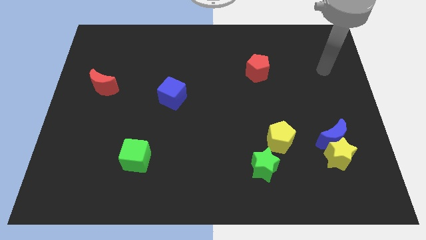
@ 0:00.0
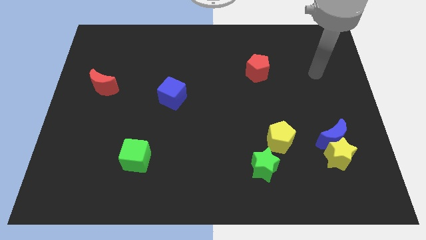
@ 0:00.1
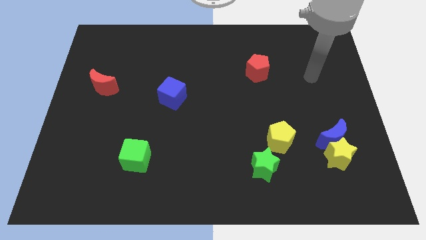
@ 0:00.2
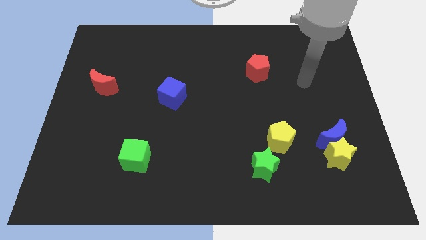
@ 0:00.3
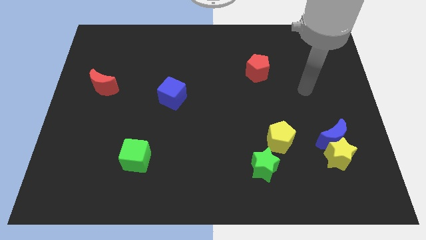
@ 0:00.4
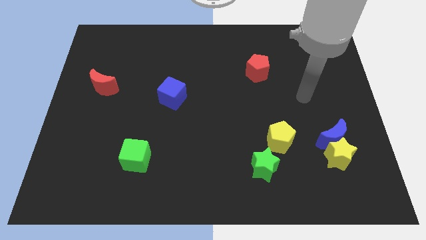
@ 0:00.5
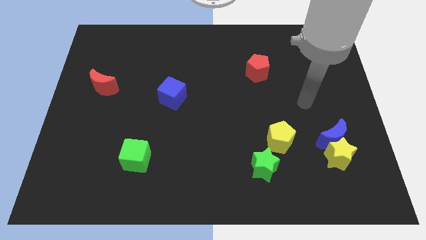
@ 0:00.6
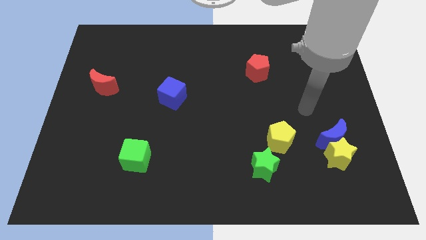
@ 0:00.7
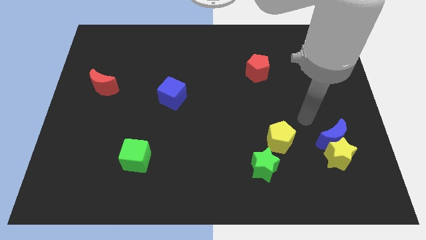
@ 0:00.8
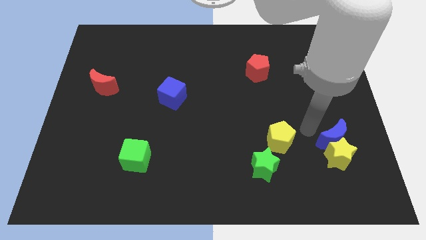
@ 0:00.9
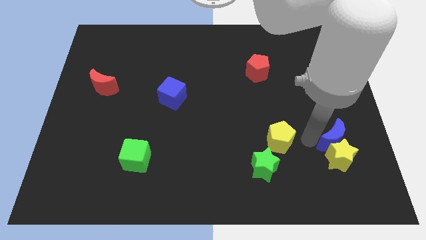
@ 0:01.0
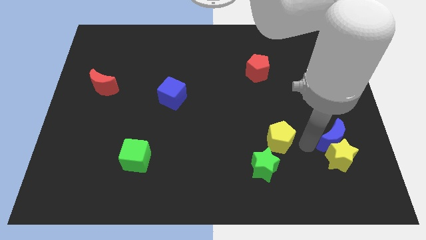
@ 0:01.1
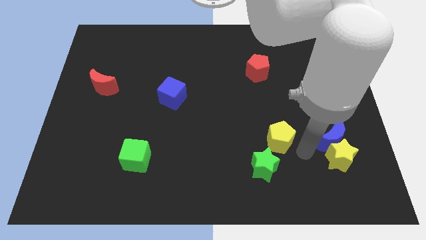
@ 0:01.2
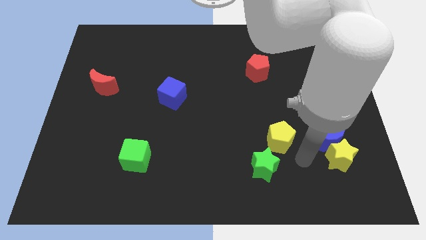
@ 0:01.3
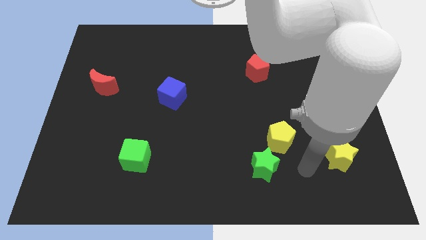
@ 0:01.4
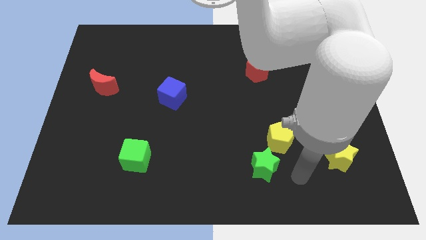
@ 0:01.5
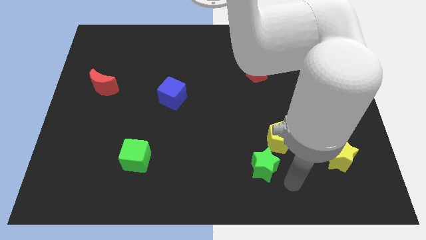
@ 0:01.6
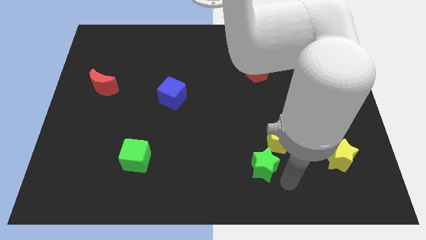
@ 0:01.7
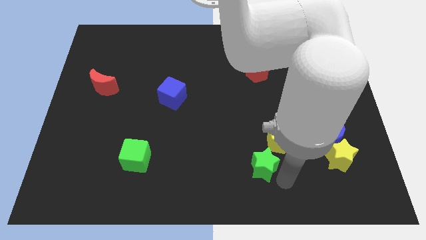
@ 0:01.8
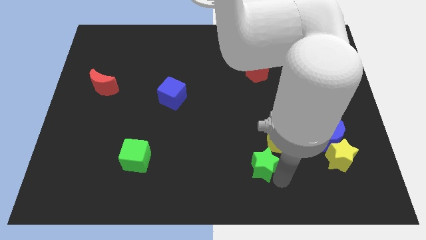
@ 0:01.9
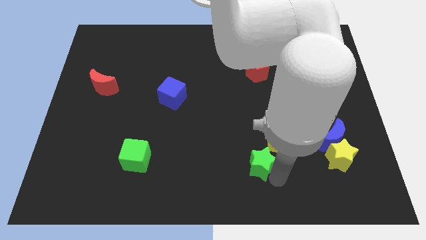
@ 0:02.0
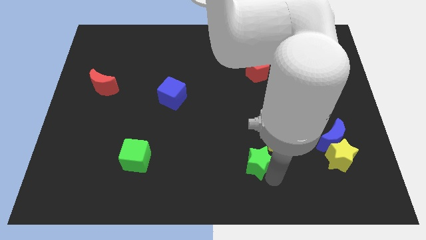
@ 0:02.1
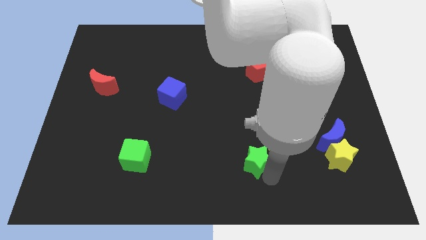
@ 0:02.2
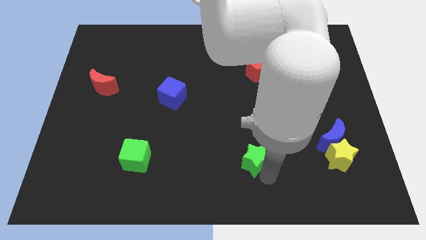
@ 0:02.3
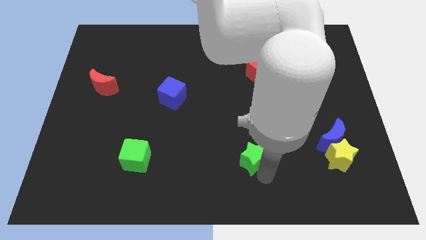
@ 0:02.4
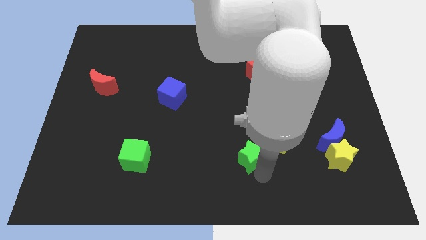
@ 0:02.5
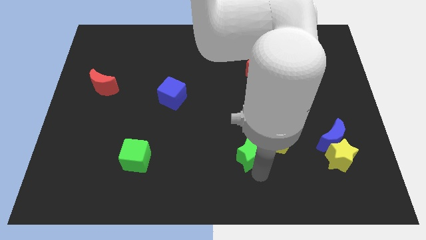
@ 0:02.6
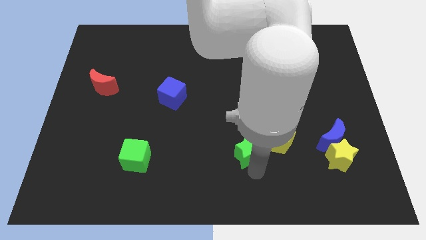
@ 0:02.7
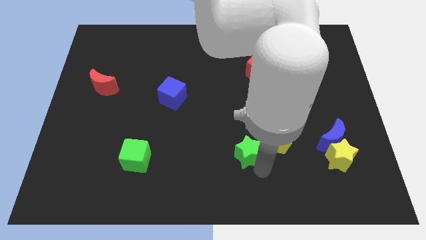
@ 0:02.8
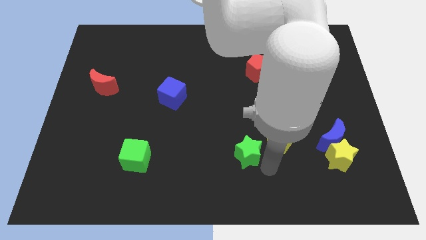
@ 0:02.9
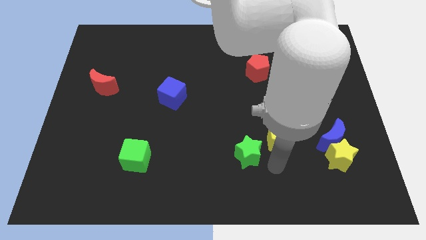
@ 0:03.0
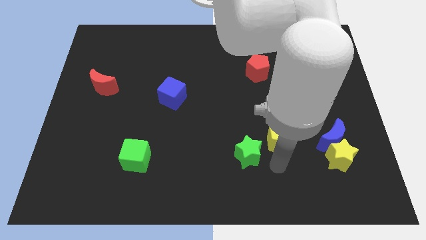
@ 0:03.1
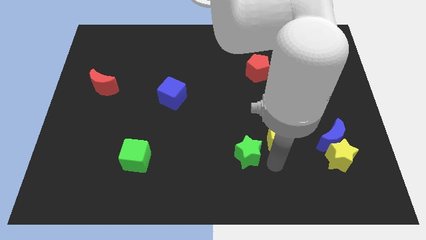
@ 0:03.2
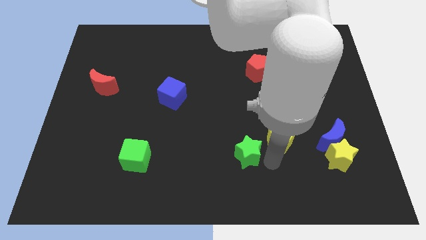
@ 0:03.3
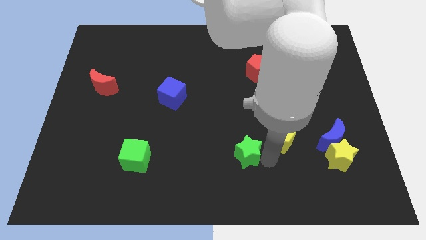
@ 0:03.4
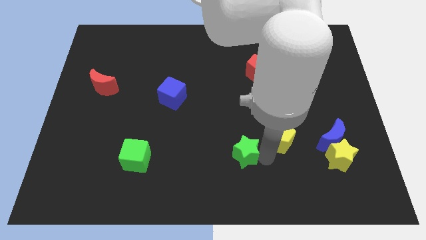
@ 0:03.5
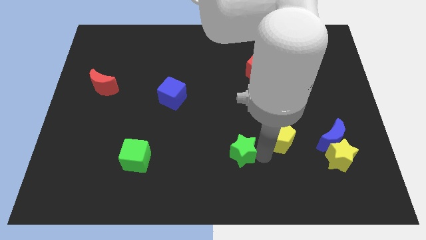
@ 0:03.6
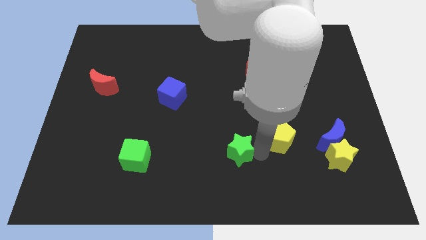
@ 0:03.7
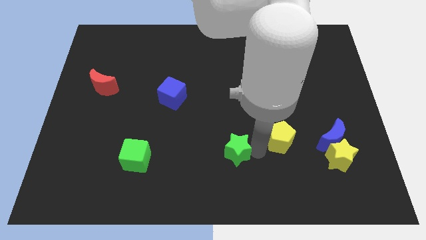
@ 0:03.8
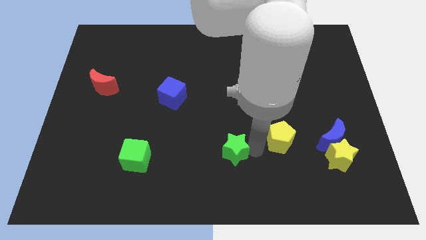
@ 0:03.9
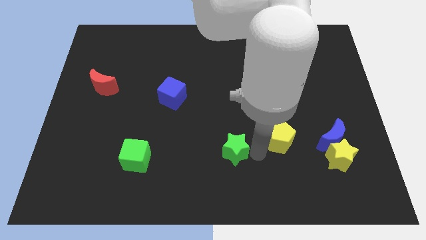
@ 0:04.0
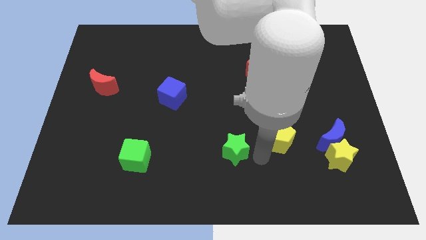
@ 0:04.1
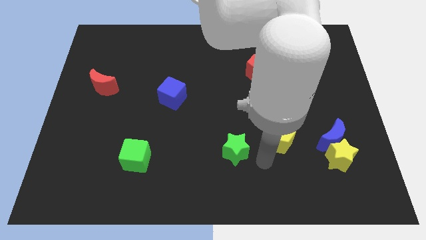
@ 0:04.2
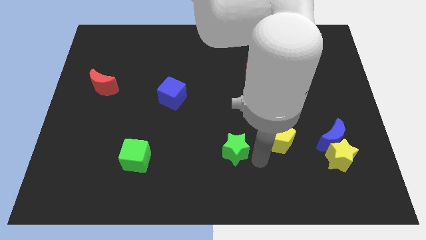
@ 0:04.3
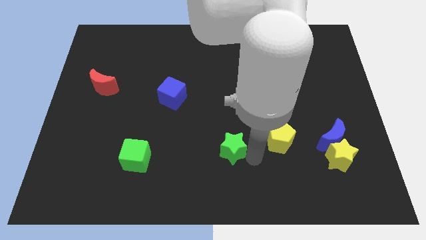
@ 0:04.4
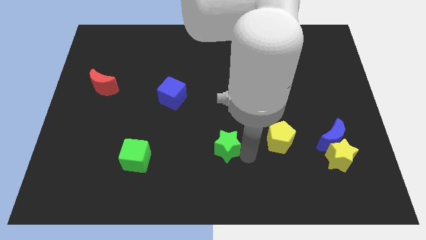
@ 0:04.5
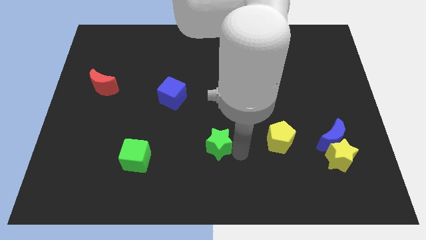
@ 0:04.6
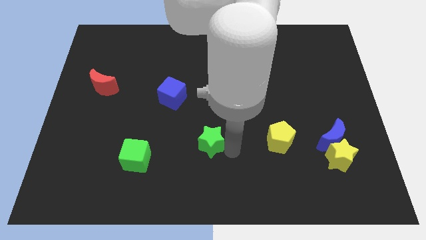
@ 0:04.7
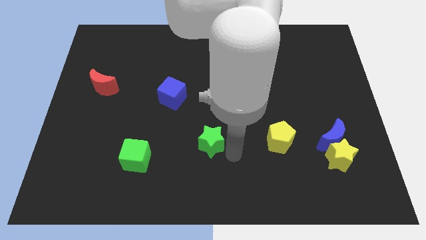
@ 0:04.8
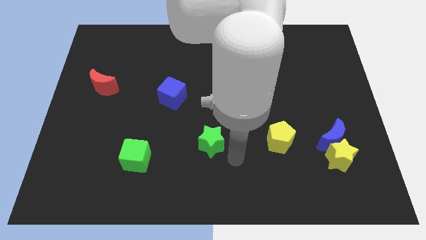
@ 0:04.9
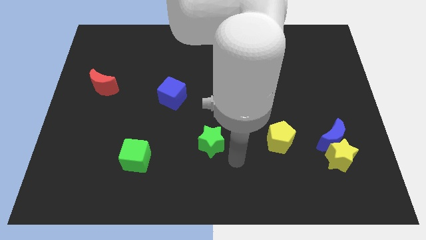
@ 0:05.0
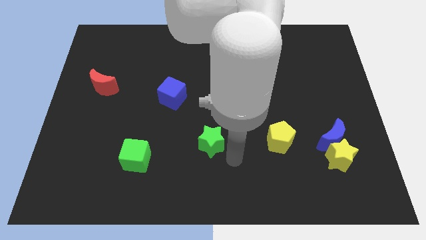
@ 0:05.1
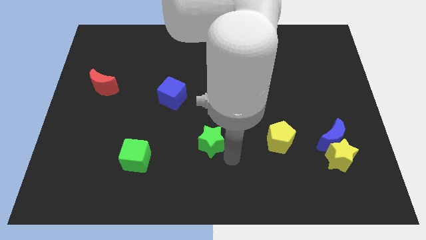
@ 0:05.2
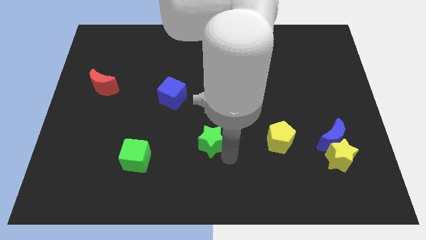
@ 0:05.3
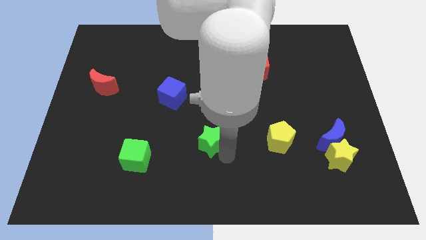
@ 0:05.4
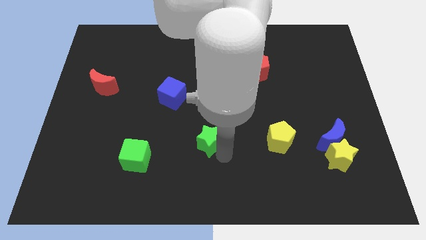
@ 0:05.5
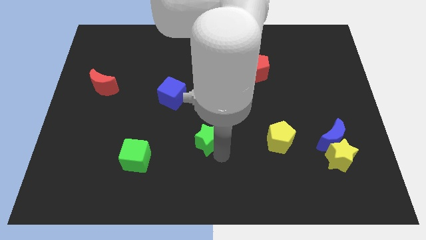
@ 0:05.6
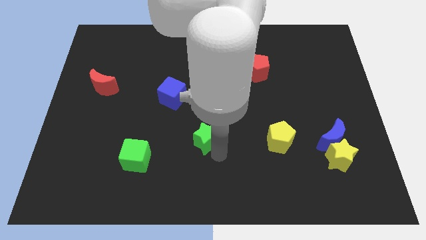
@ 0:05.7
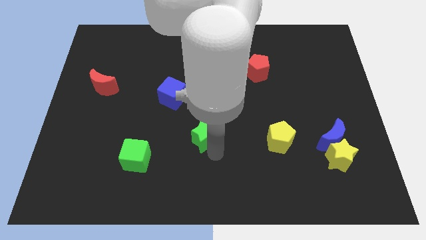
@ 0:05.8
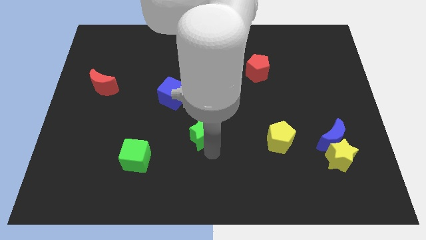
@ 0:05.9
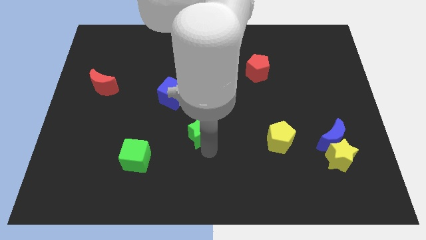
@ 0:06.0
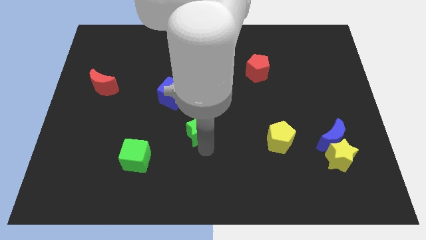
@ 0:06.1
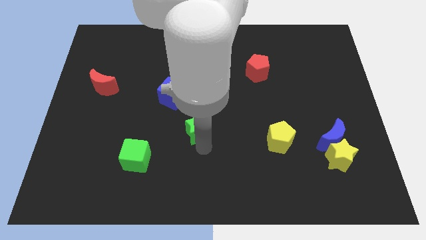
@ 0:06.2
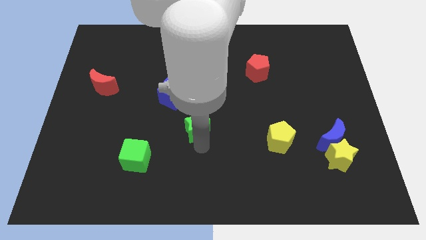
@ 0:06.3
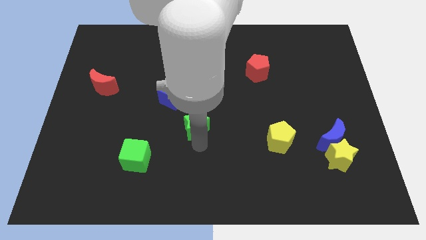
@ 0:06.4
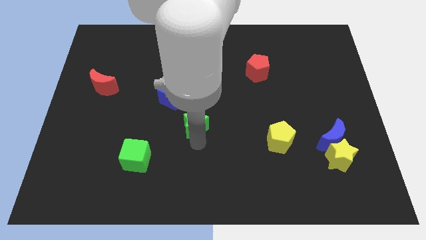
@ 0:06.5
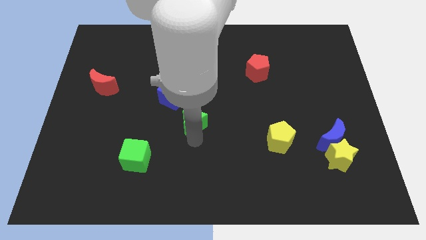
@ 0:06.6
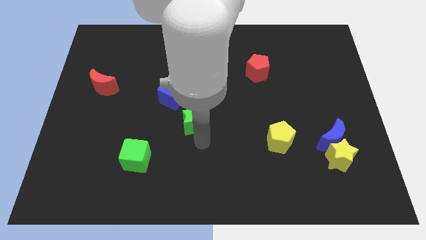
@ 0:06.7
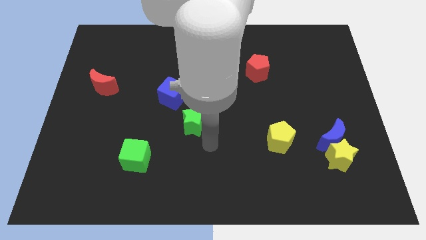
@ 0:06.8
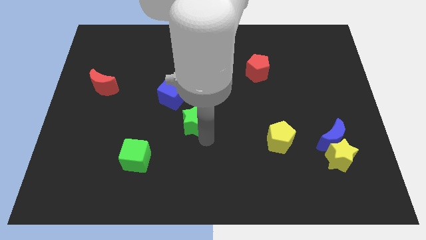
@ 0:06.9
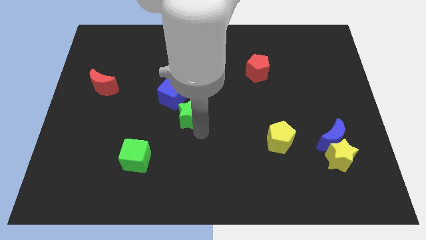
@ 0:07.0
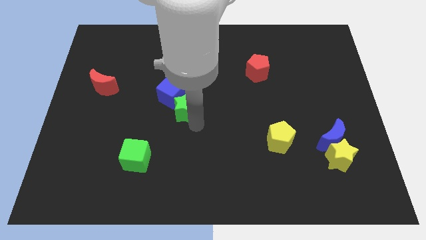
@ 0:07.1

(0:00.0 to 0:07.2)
move the green star towards the blue cube

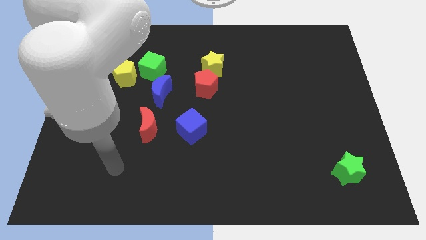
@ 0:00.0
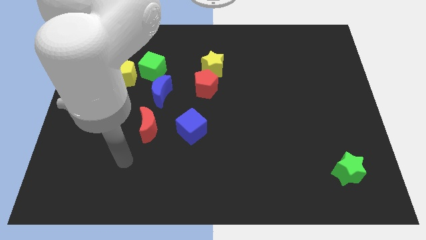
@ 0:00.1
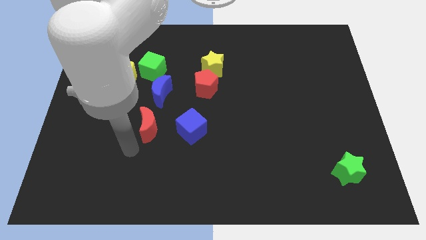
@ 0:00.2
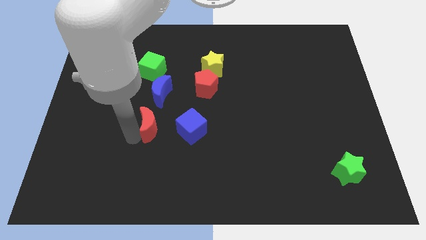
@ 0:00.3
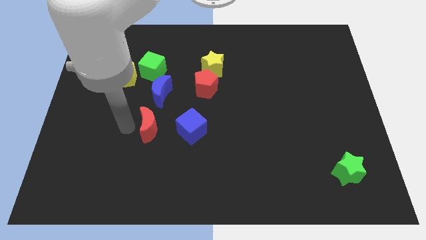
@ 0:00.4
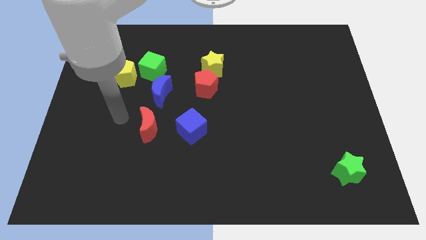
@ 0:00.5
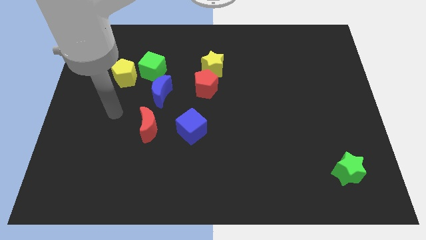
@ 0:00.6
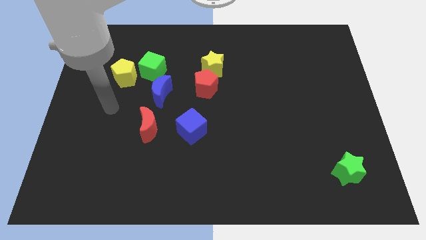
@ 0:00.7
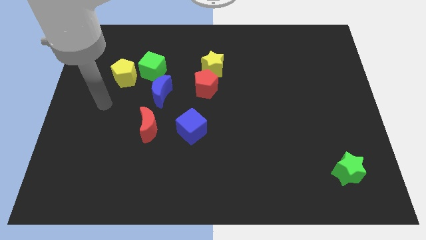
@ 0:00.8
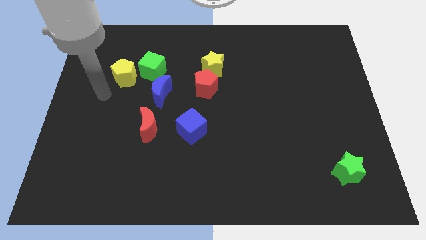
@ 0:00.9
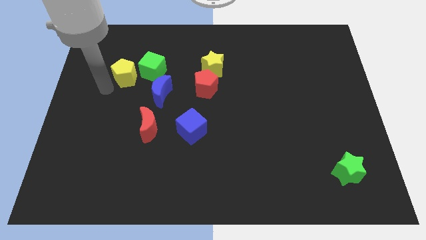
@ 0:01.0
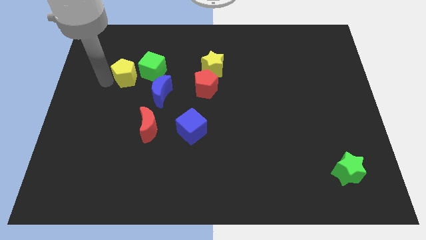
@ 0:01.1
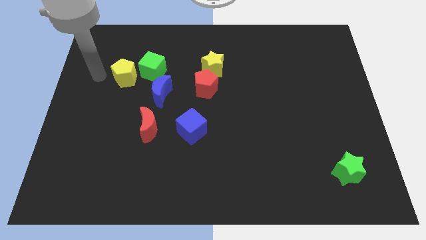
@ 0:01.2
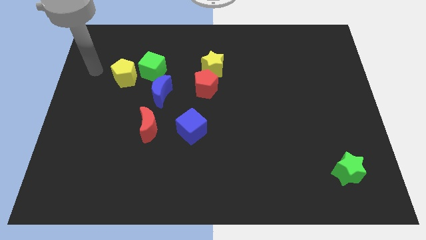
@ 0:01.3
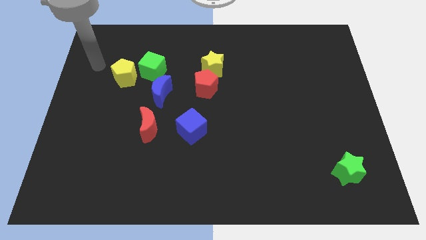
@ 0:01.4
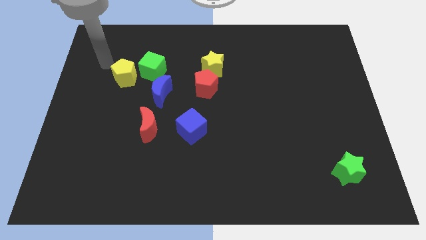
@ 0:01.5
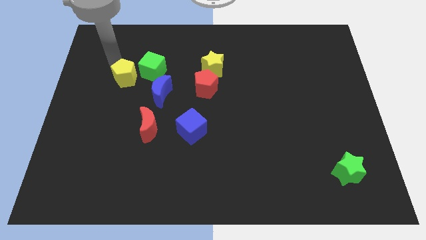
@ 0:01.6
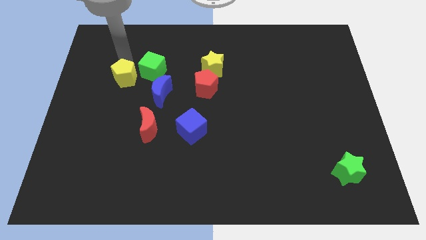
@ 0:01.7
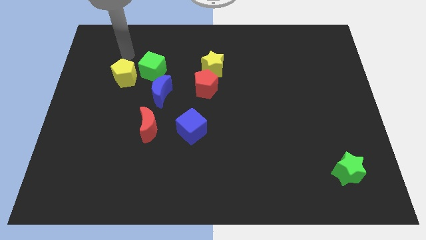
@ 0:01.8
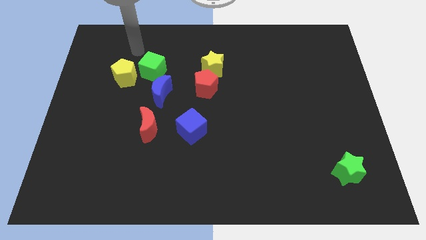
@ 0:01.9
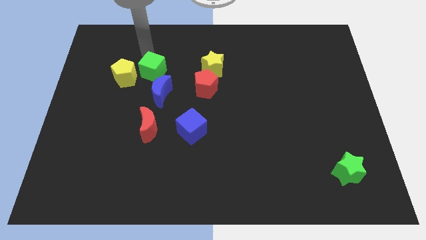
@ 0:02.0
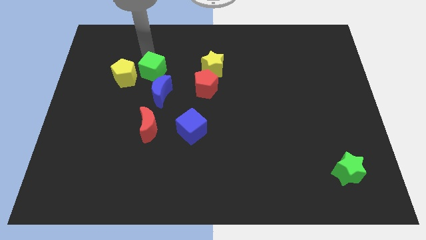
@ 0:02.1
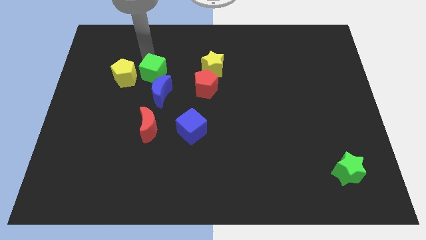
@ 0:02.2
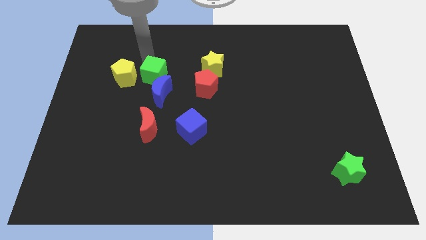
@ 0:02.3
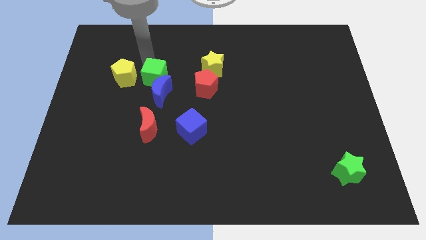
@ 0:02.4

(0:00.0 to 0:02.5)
push the green cube close to the blue moon
